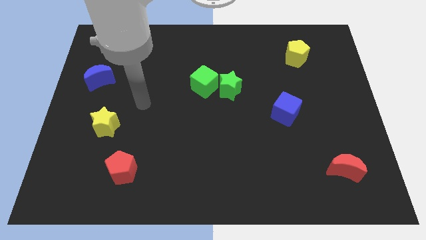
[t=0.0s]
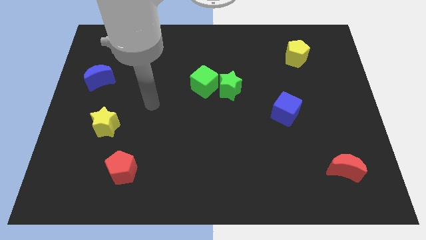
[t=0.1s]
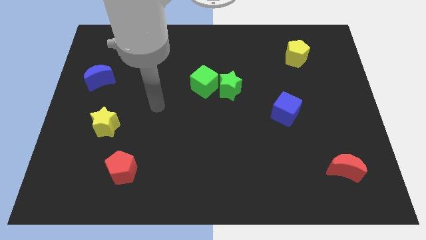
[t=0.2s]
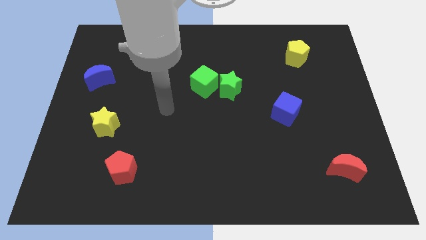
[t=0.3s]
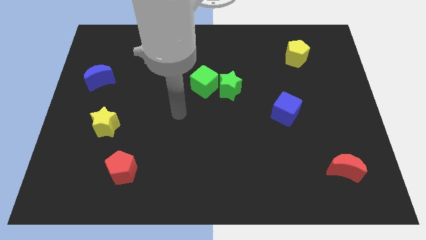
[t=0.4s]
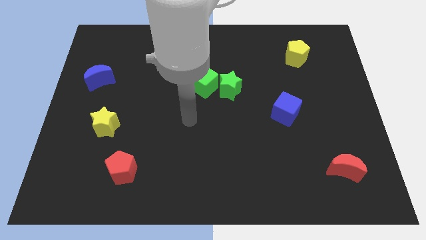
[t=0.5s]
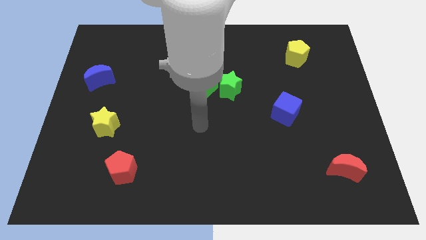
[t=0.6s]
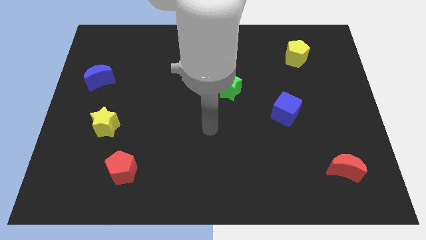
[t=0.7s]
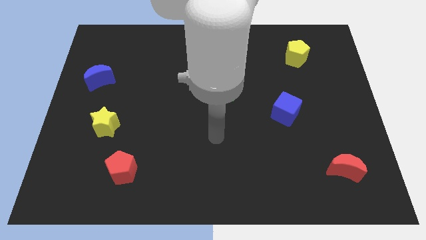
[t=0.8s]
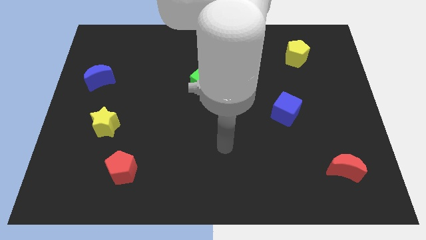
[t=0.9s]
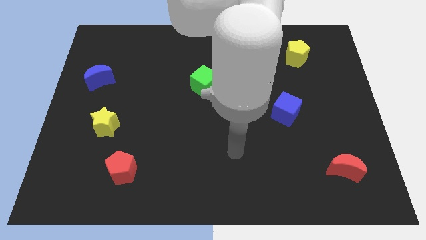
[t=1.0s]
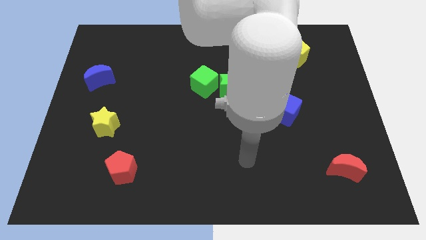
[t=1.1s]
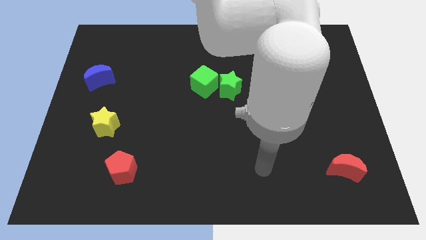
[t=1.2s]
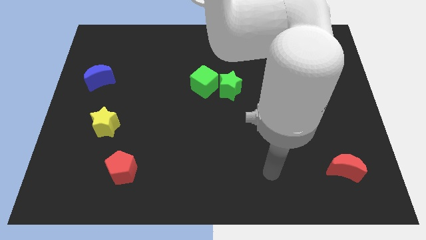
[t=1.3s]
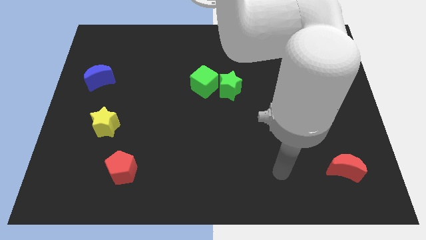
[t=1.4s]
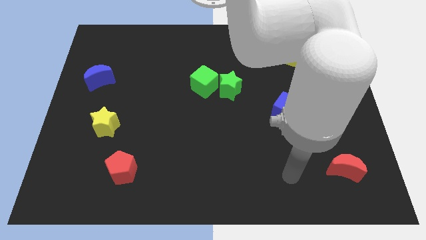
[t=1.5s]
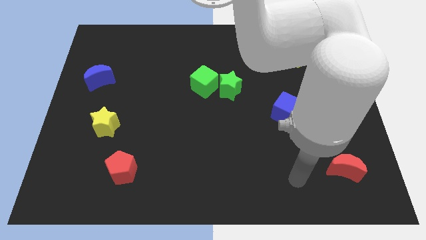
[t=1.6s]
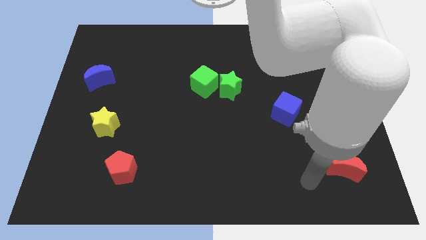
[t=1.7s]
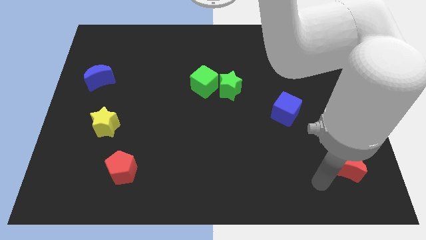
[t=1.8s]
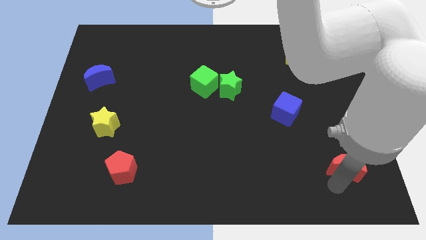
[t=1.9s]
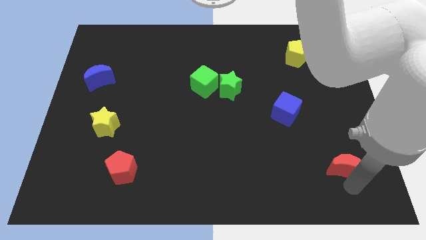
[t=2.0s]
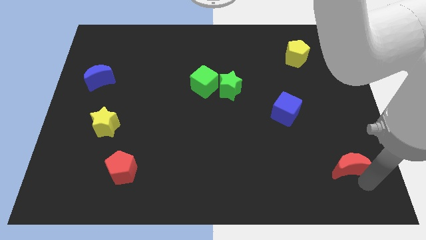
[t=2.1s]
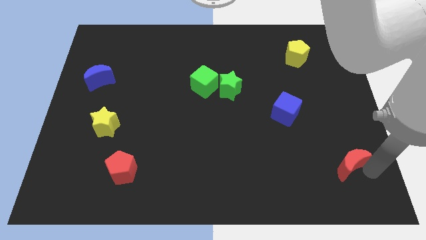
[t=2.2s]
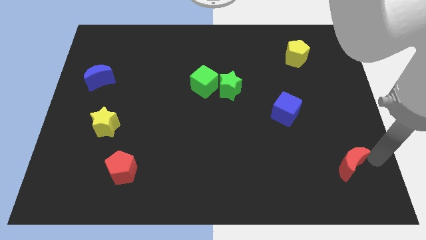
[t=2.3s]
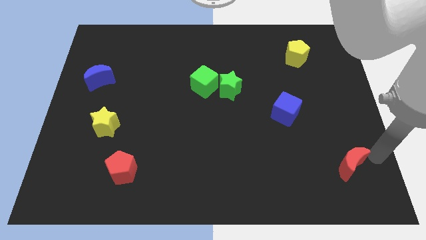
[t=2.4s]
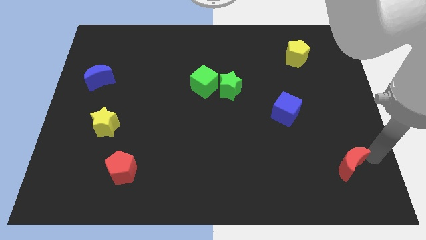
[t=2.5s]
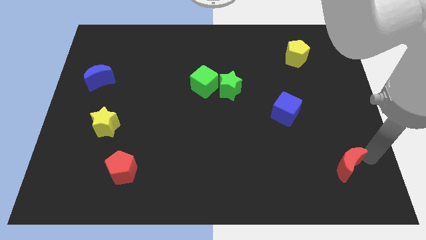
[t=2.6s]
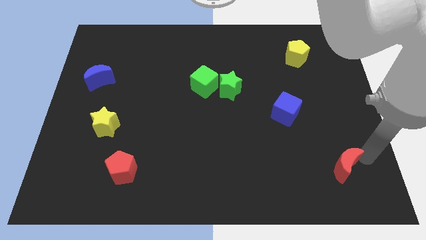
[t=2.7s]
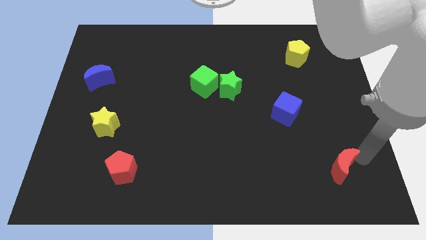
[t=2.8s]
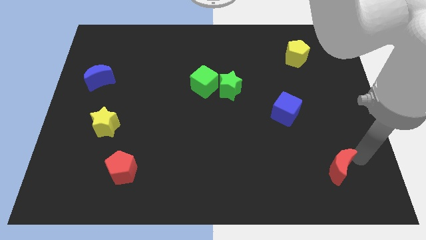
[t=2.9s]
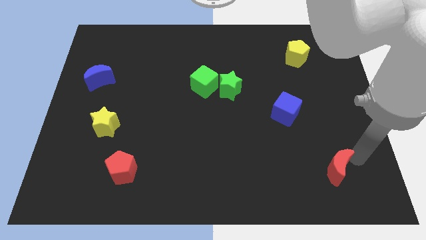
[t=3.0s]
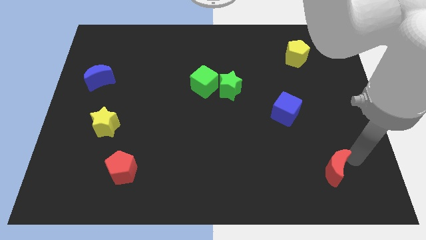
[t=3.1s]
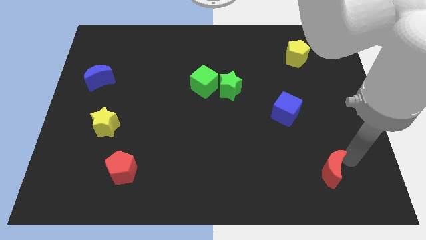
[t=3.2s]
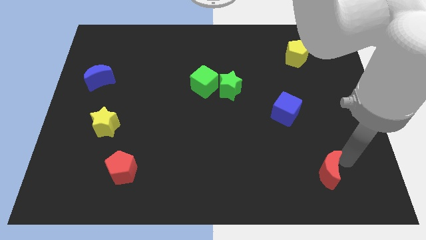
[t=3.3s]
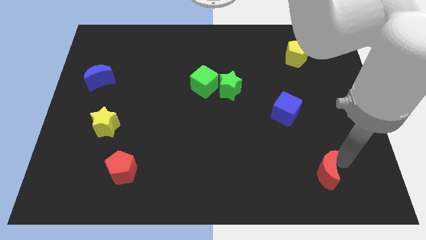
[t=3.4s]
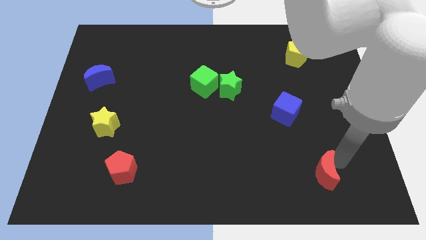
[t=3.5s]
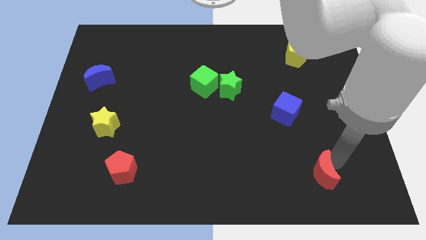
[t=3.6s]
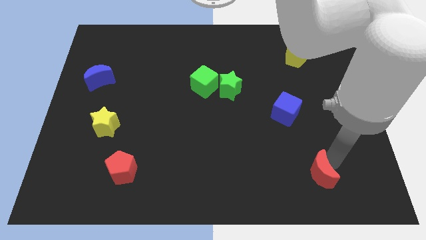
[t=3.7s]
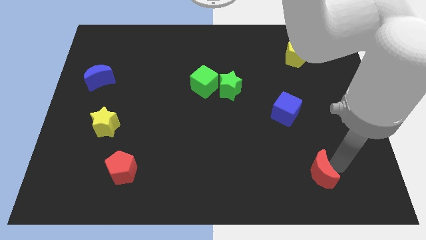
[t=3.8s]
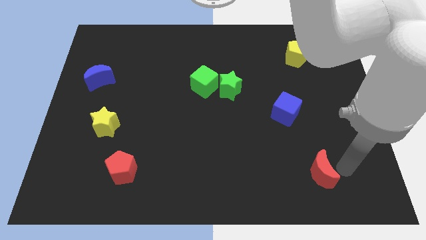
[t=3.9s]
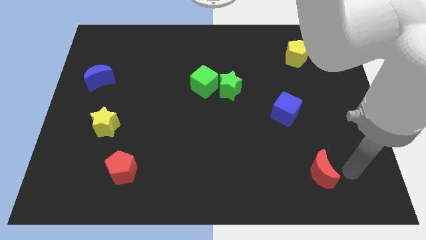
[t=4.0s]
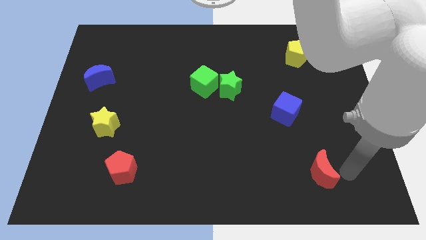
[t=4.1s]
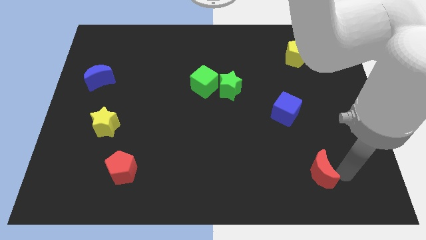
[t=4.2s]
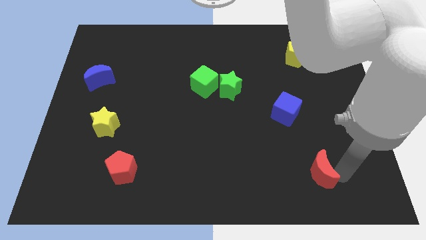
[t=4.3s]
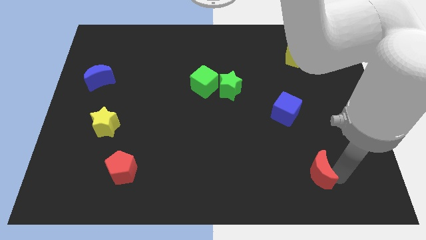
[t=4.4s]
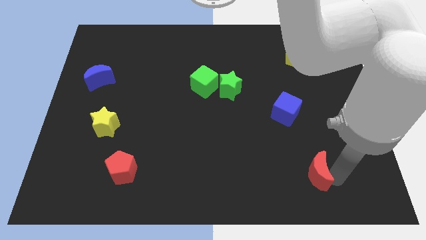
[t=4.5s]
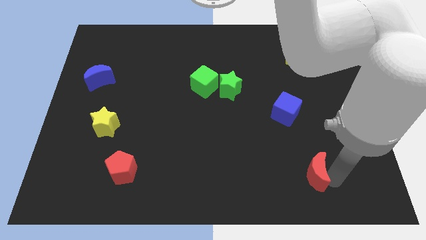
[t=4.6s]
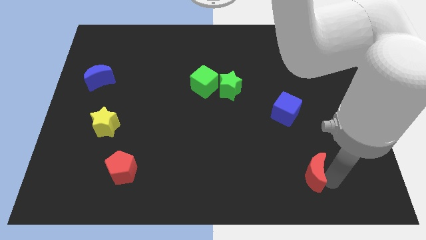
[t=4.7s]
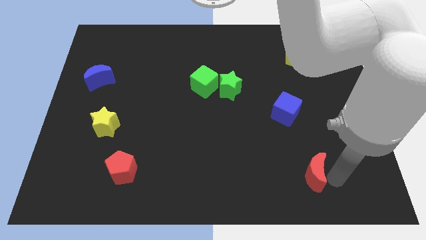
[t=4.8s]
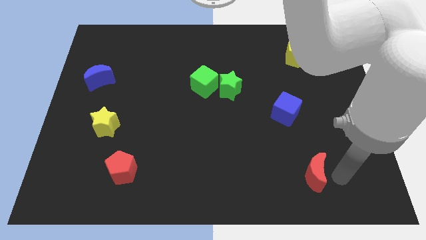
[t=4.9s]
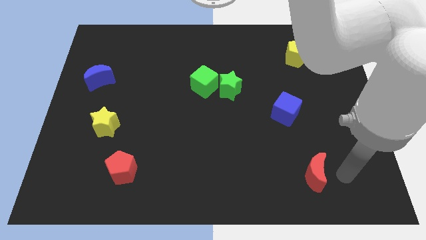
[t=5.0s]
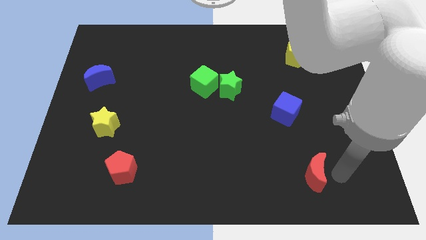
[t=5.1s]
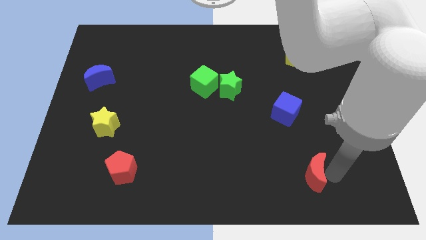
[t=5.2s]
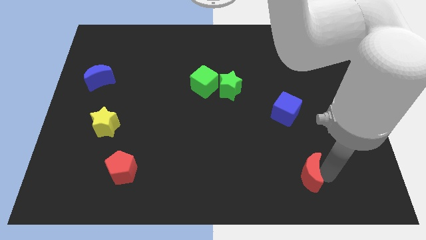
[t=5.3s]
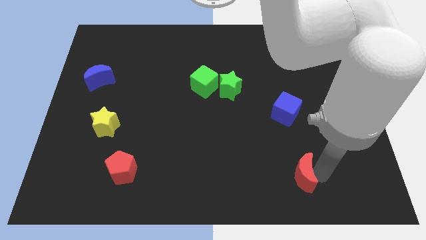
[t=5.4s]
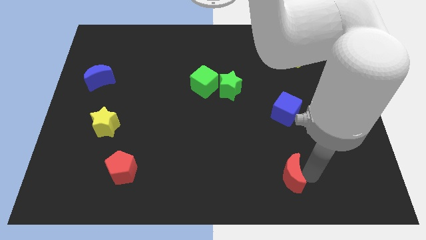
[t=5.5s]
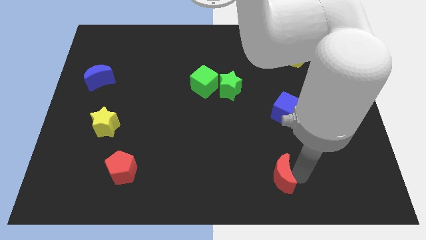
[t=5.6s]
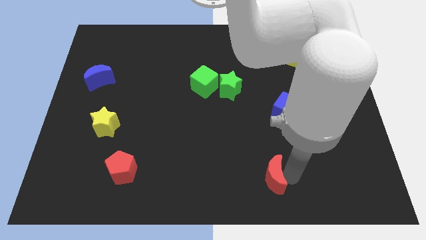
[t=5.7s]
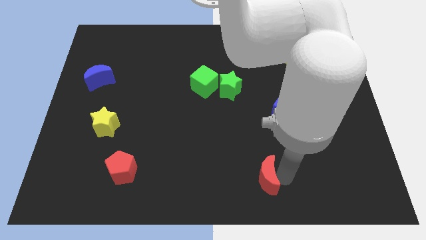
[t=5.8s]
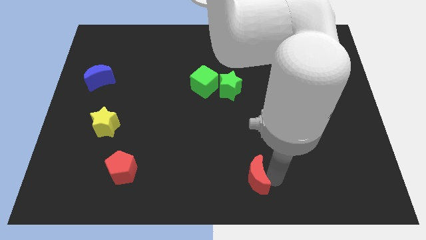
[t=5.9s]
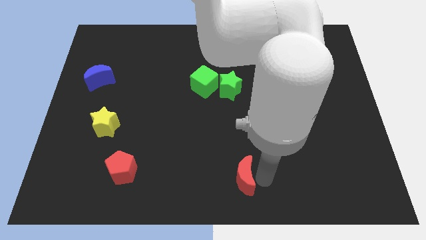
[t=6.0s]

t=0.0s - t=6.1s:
push the red moon to the left

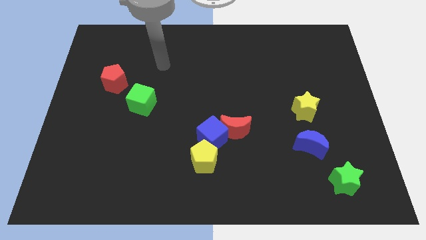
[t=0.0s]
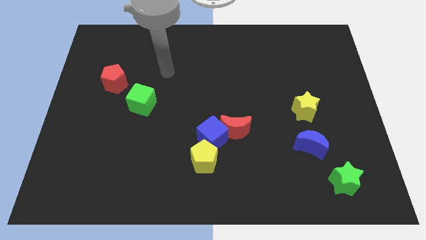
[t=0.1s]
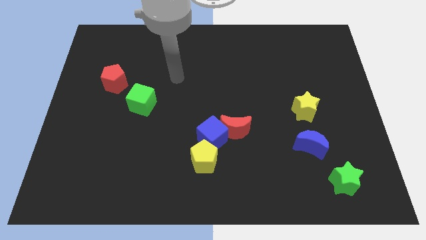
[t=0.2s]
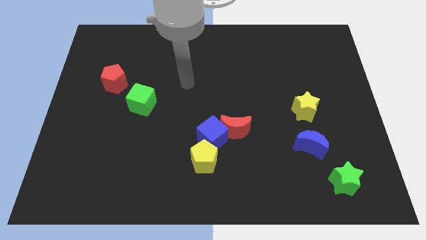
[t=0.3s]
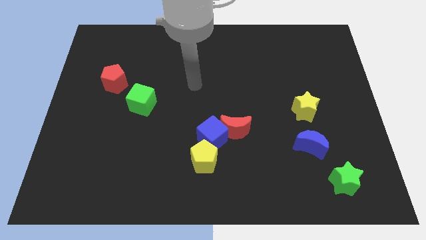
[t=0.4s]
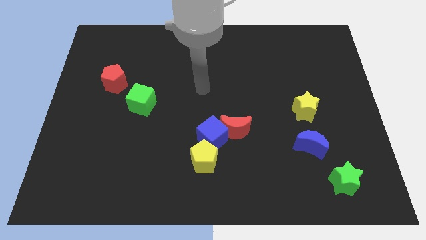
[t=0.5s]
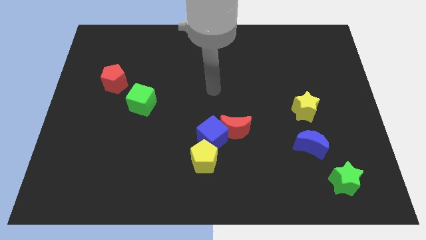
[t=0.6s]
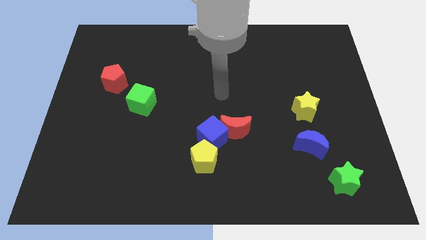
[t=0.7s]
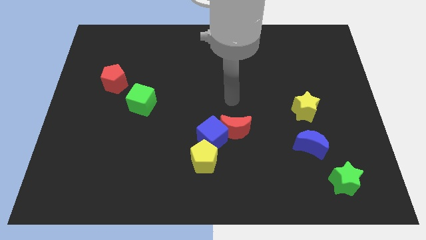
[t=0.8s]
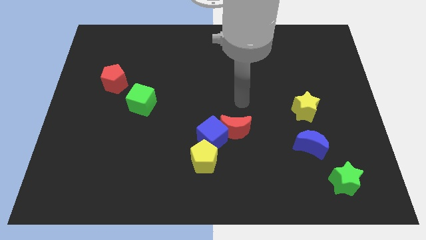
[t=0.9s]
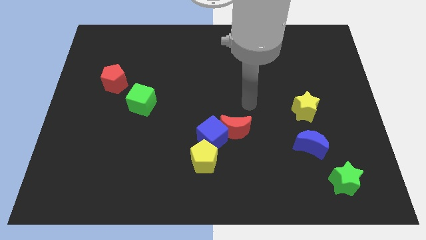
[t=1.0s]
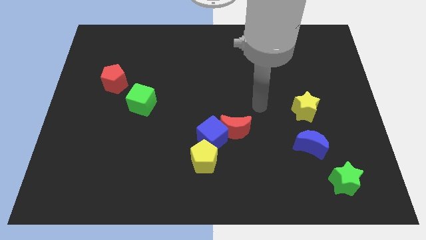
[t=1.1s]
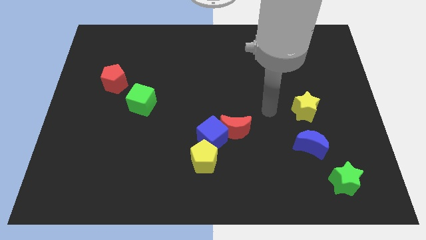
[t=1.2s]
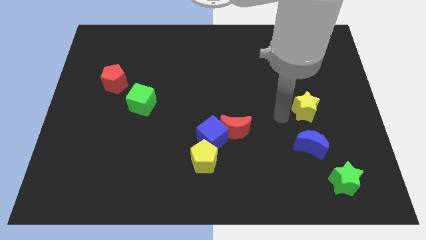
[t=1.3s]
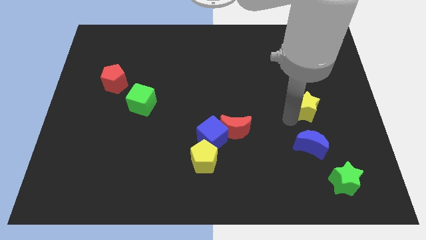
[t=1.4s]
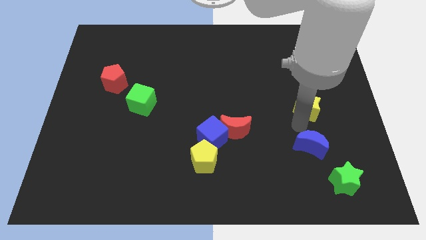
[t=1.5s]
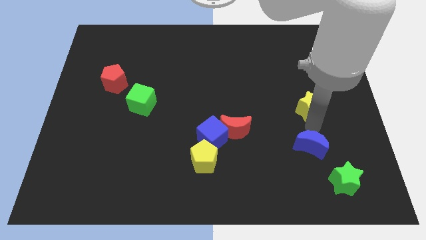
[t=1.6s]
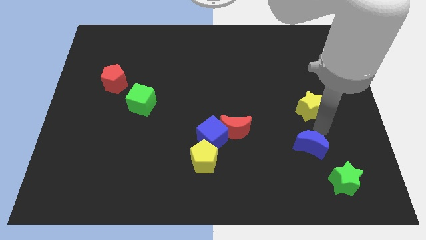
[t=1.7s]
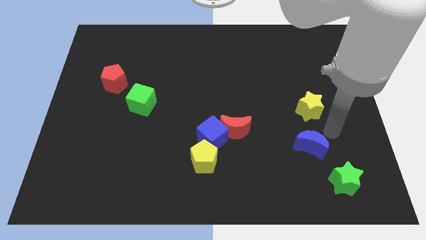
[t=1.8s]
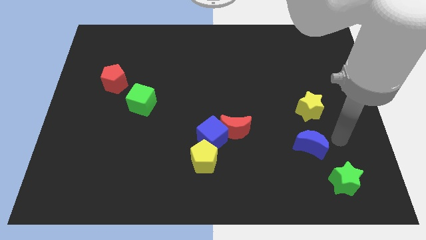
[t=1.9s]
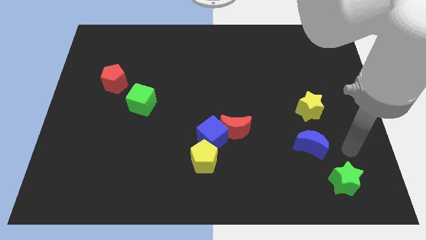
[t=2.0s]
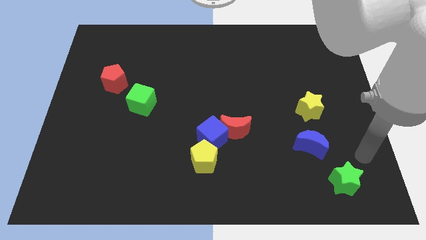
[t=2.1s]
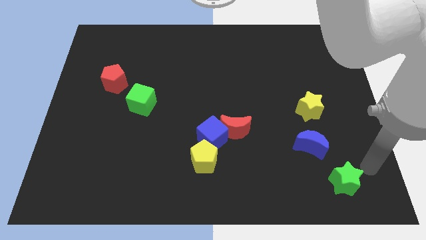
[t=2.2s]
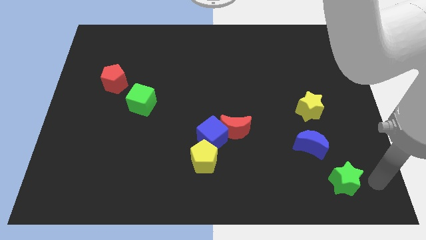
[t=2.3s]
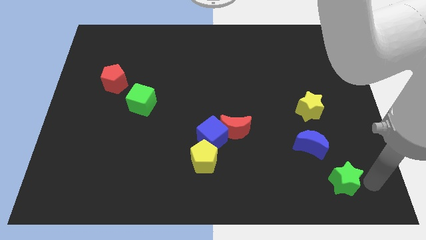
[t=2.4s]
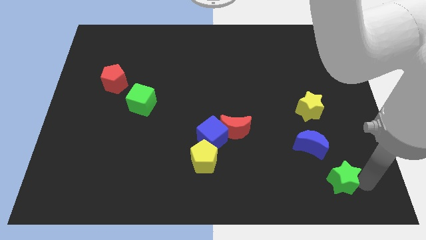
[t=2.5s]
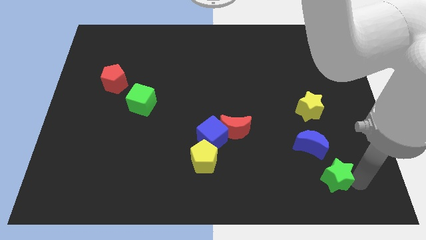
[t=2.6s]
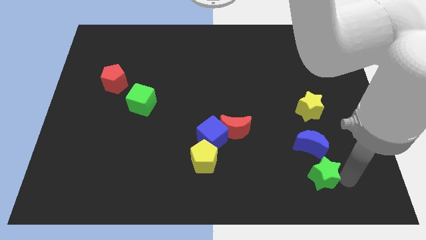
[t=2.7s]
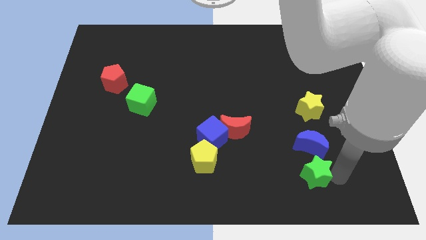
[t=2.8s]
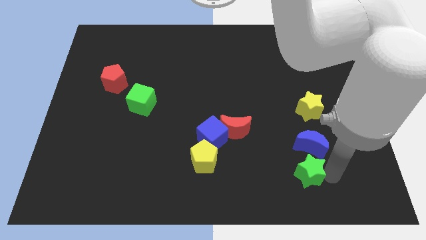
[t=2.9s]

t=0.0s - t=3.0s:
slightly push the green star left
